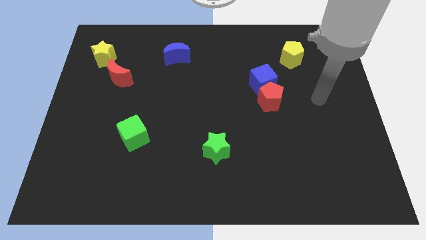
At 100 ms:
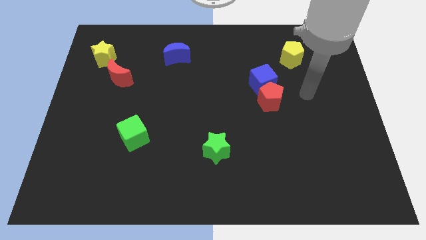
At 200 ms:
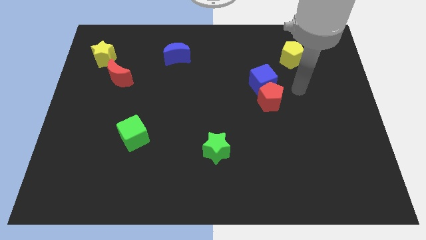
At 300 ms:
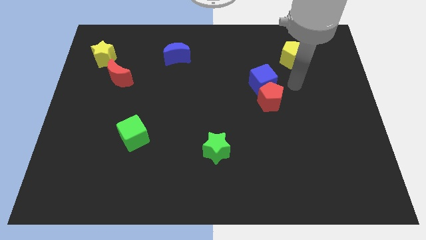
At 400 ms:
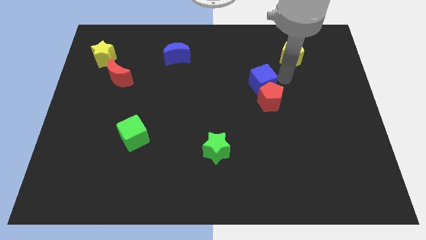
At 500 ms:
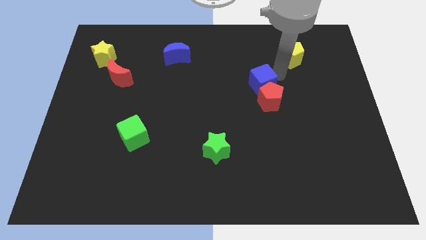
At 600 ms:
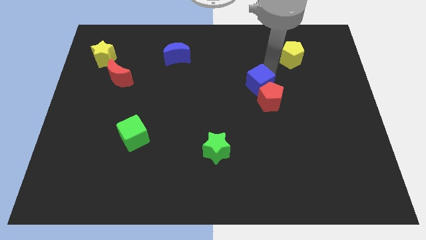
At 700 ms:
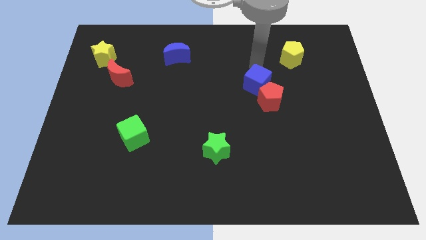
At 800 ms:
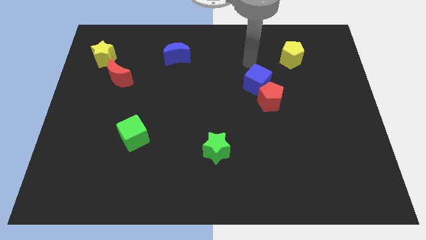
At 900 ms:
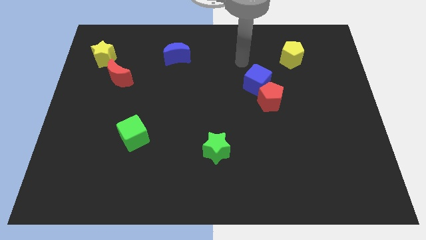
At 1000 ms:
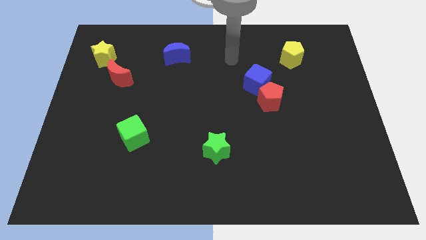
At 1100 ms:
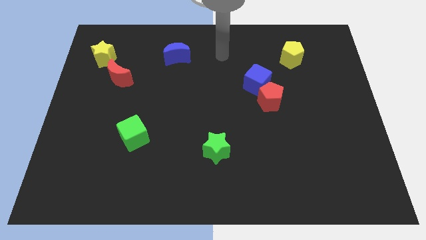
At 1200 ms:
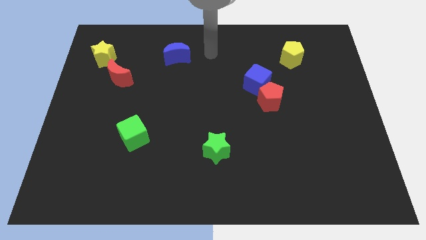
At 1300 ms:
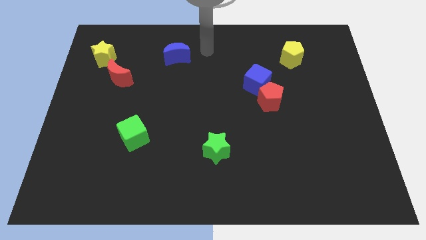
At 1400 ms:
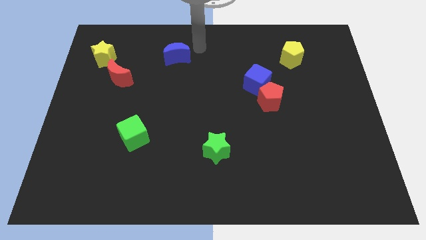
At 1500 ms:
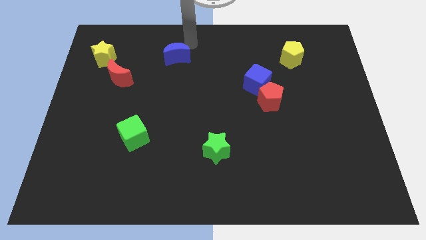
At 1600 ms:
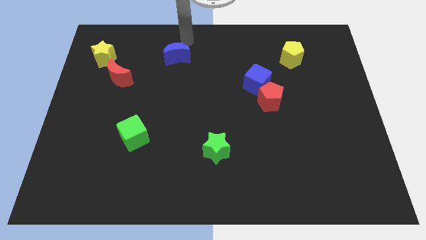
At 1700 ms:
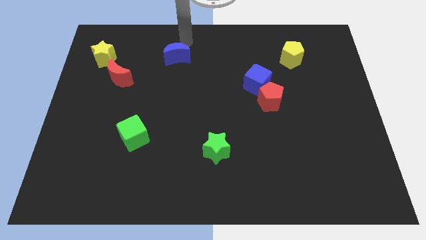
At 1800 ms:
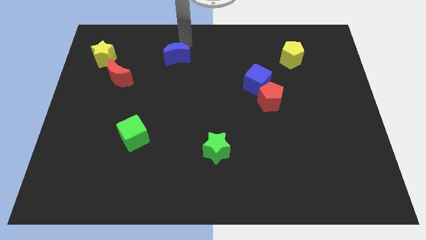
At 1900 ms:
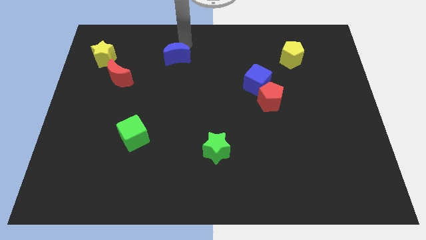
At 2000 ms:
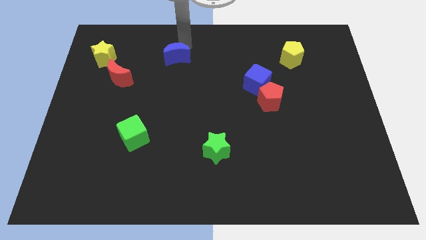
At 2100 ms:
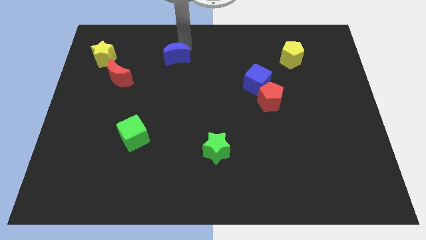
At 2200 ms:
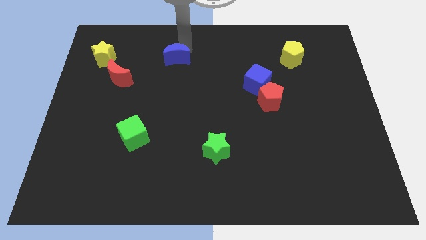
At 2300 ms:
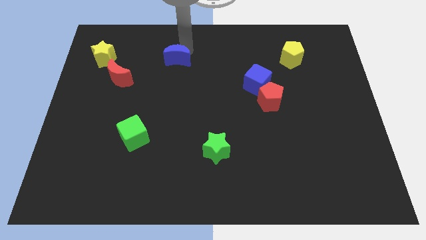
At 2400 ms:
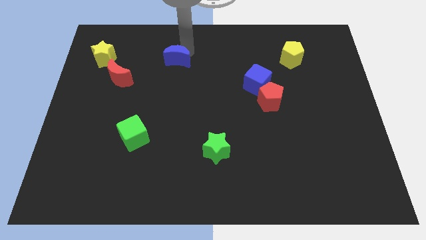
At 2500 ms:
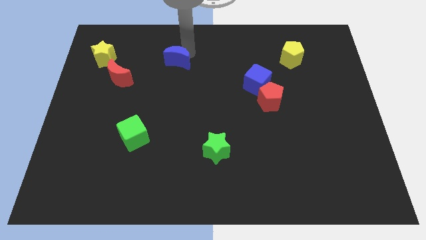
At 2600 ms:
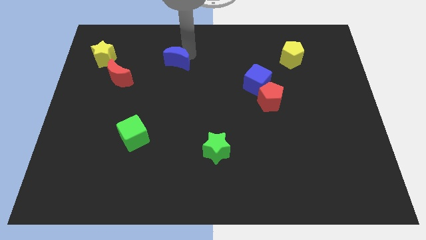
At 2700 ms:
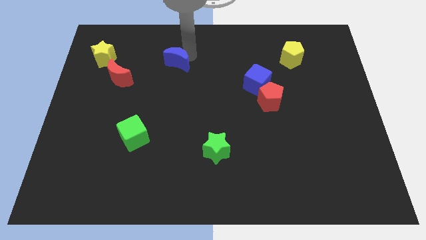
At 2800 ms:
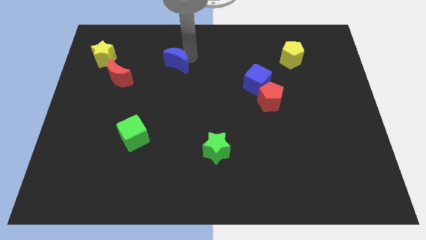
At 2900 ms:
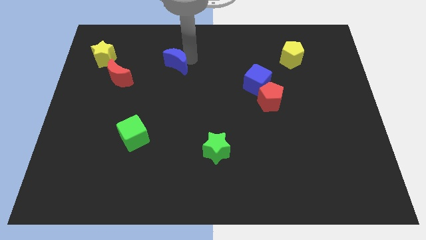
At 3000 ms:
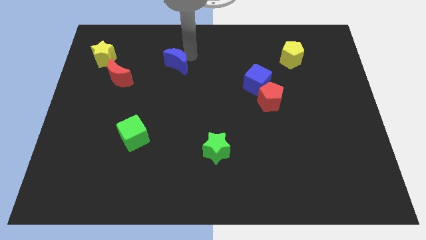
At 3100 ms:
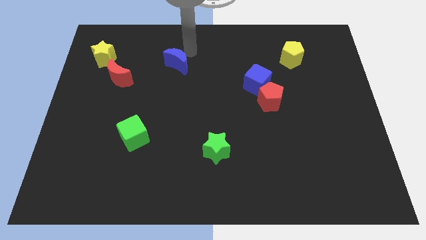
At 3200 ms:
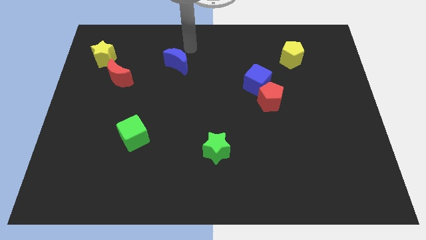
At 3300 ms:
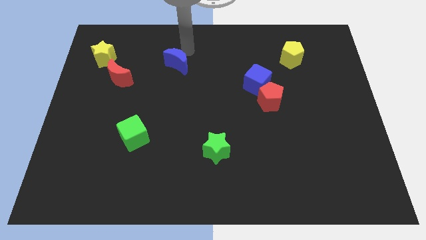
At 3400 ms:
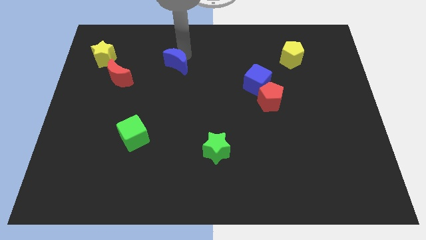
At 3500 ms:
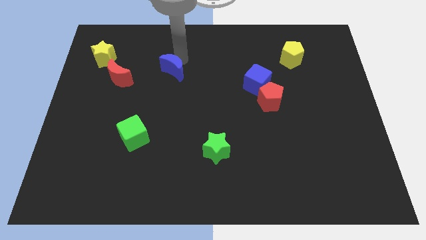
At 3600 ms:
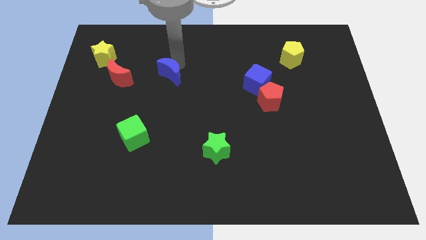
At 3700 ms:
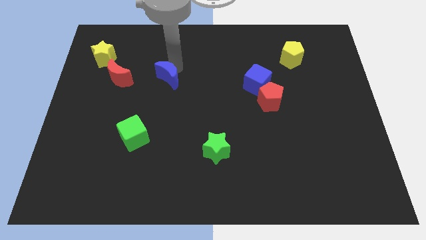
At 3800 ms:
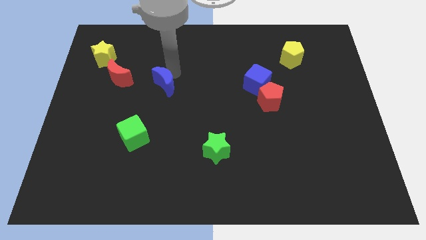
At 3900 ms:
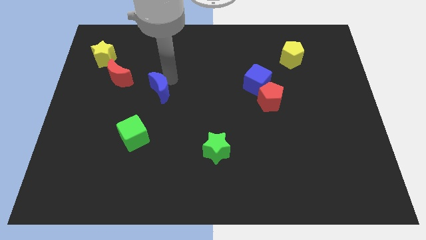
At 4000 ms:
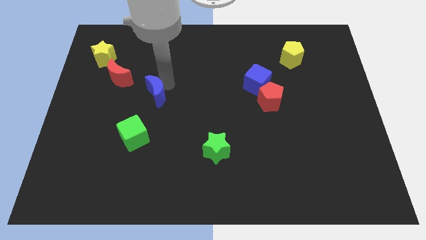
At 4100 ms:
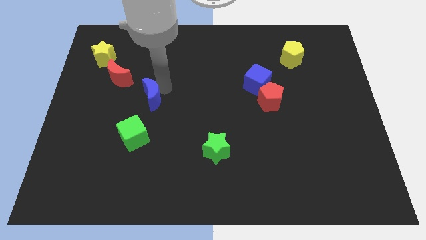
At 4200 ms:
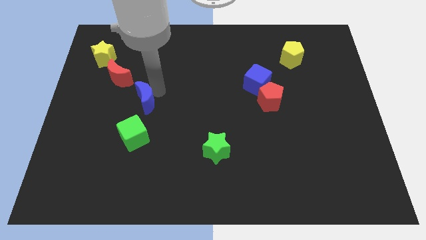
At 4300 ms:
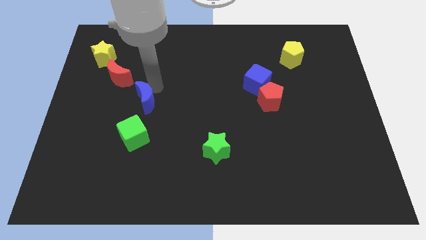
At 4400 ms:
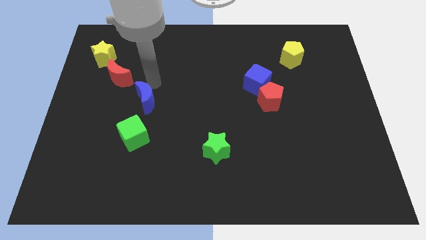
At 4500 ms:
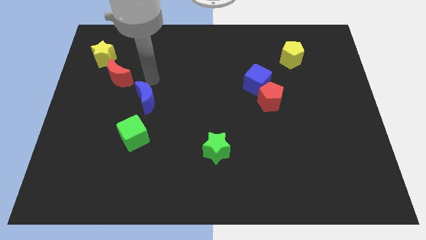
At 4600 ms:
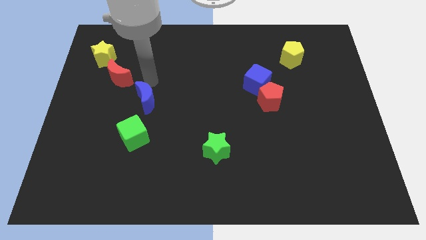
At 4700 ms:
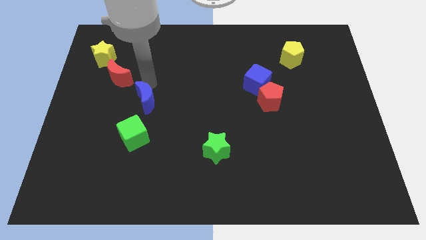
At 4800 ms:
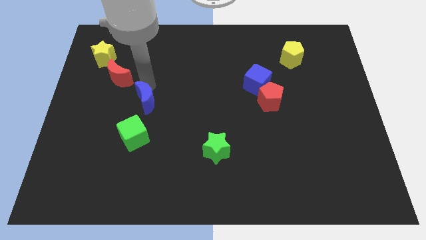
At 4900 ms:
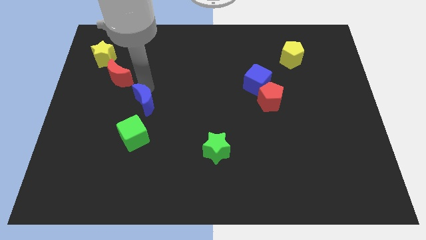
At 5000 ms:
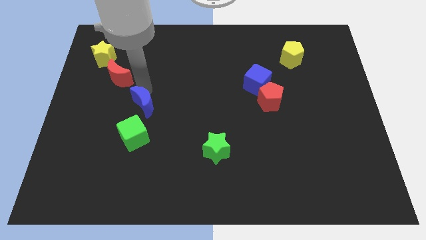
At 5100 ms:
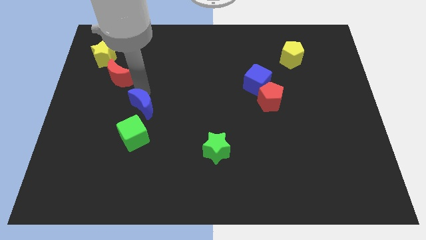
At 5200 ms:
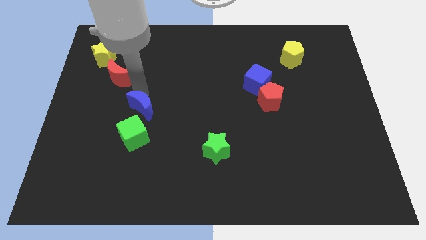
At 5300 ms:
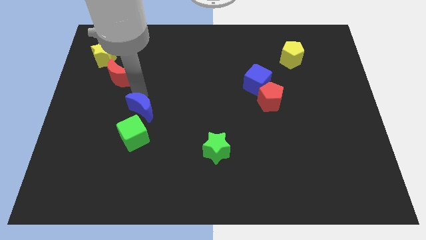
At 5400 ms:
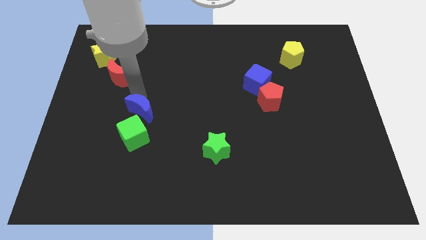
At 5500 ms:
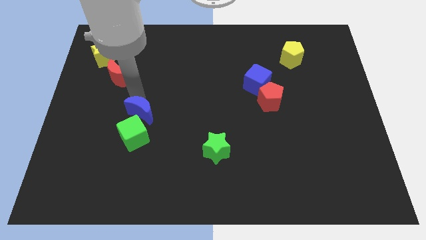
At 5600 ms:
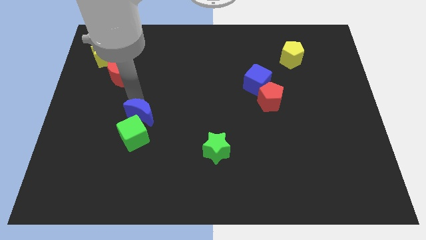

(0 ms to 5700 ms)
put the blue moon close to the green cube

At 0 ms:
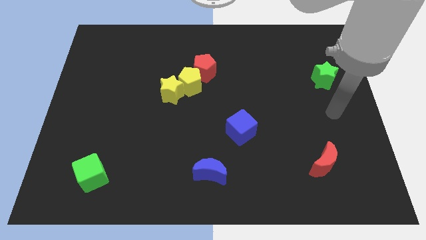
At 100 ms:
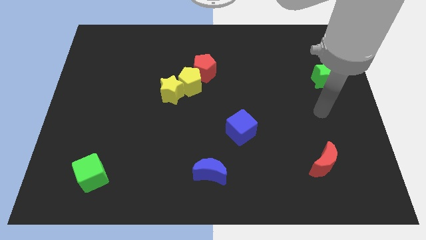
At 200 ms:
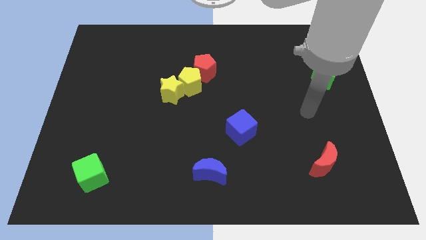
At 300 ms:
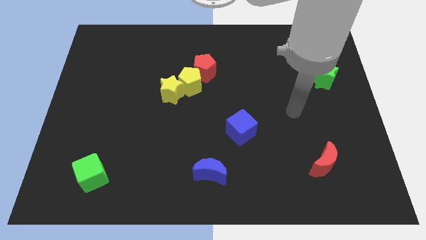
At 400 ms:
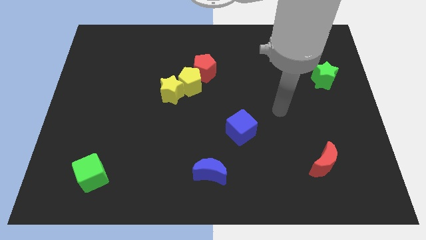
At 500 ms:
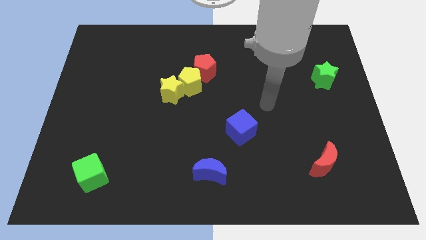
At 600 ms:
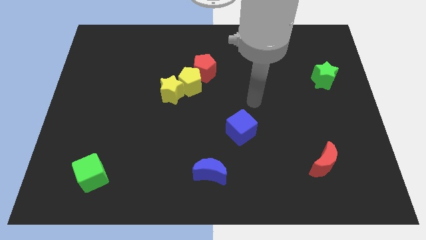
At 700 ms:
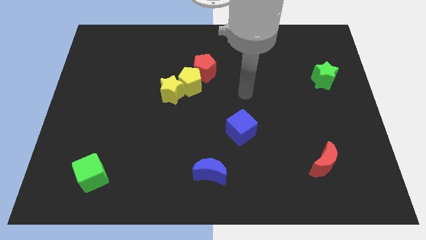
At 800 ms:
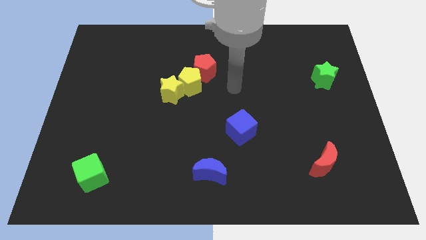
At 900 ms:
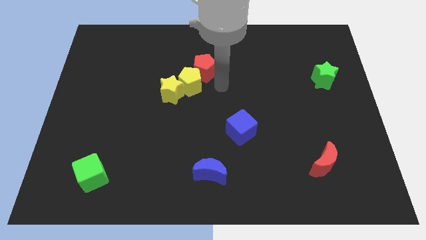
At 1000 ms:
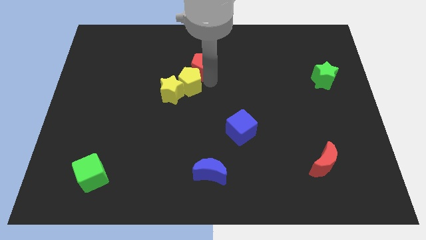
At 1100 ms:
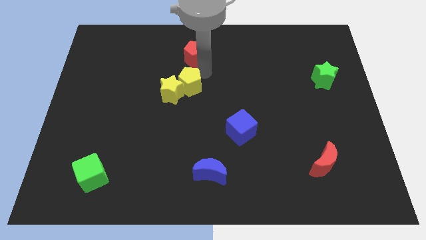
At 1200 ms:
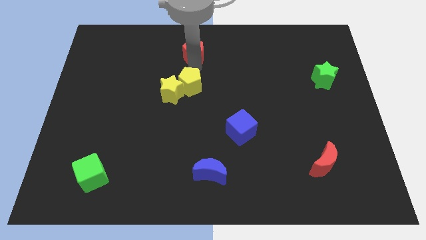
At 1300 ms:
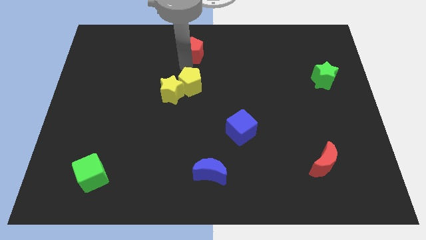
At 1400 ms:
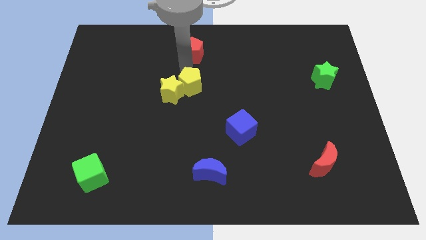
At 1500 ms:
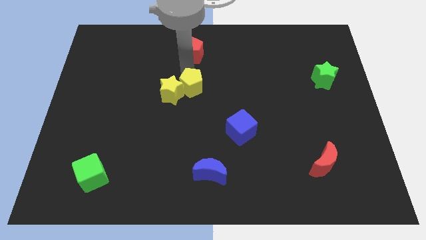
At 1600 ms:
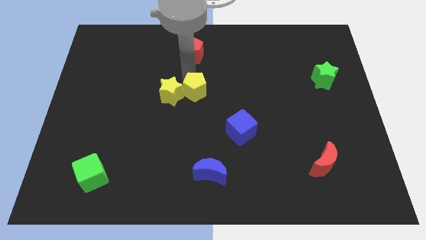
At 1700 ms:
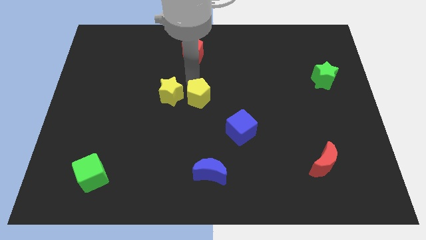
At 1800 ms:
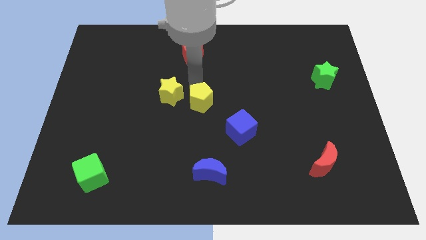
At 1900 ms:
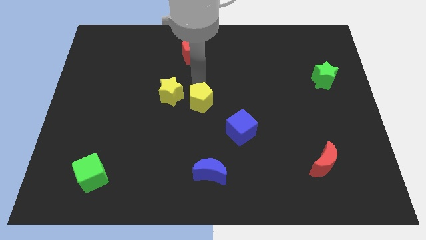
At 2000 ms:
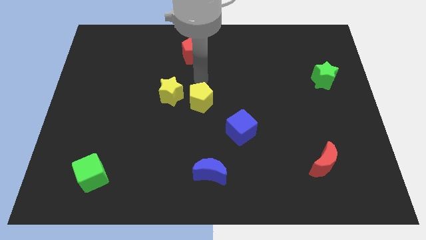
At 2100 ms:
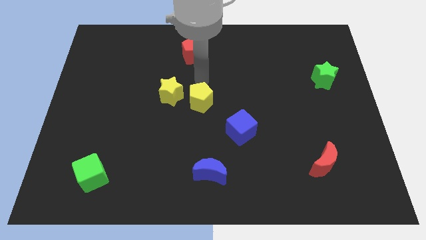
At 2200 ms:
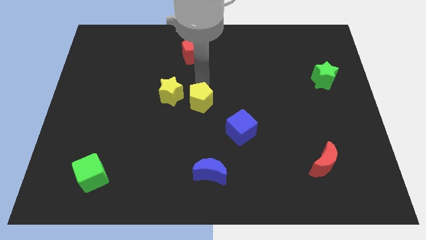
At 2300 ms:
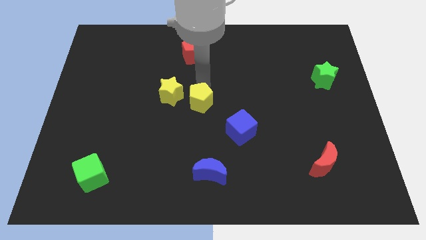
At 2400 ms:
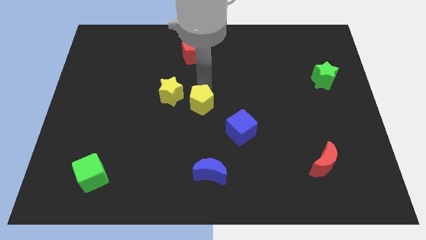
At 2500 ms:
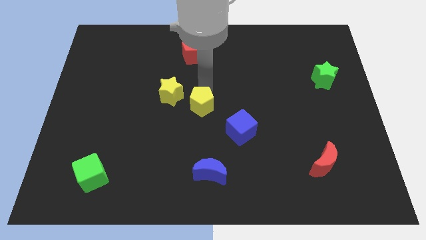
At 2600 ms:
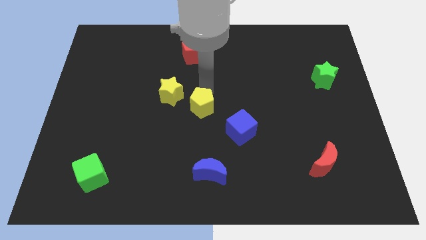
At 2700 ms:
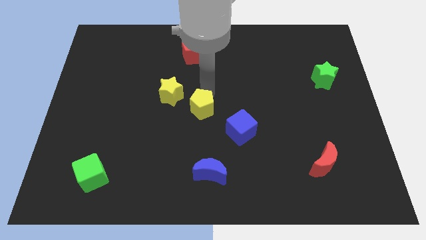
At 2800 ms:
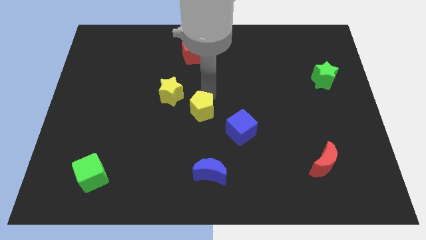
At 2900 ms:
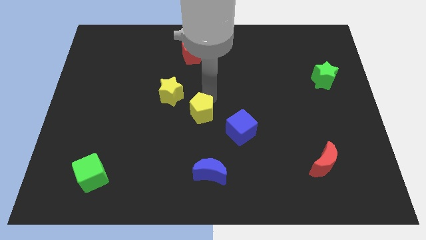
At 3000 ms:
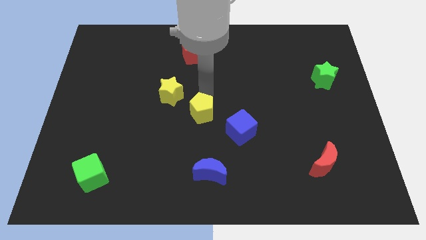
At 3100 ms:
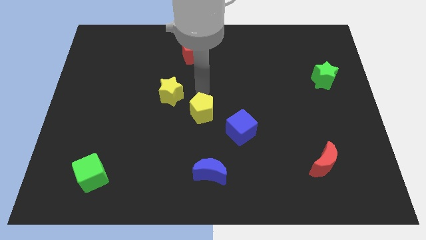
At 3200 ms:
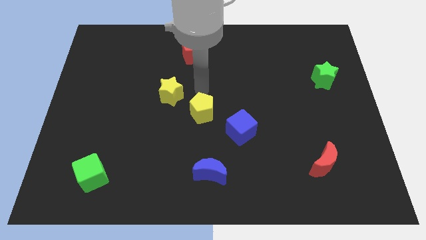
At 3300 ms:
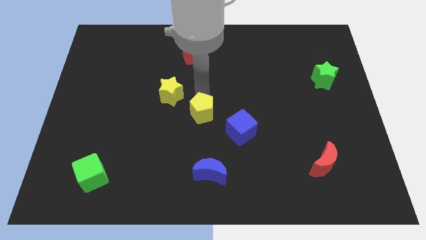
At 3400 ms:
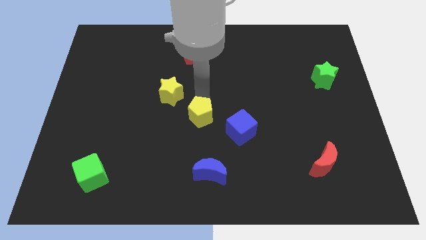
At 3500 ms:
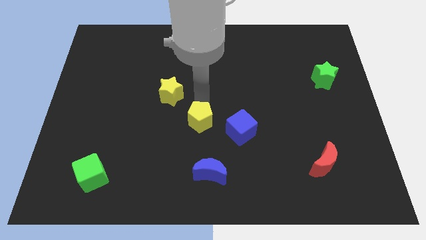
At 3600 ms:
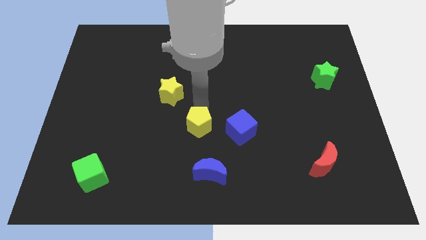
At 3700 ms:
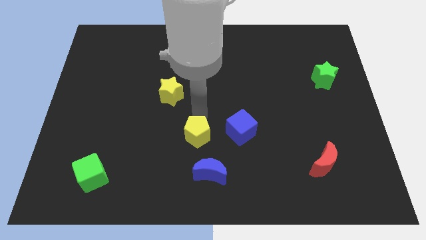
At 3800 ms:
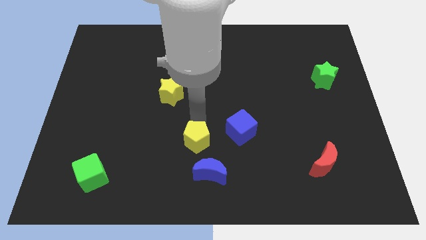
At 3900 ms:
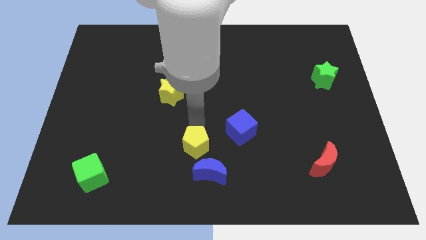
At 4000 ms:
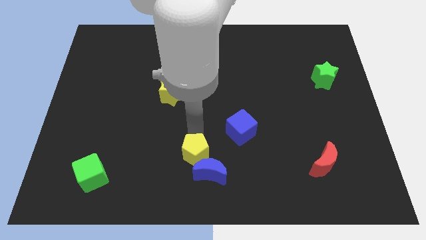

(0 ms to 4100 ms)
push the yellow pentagon to the blue moon
